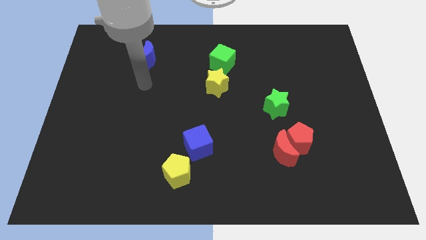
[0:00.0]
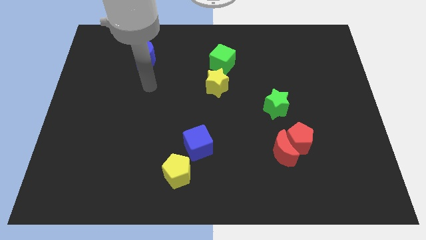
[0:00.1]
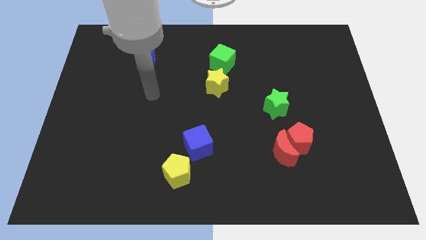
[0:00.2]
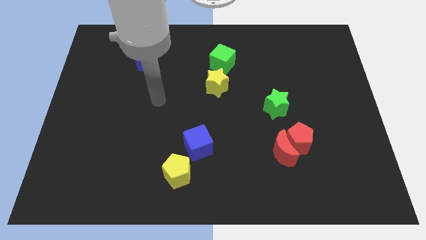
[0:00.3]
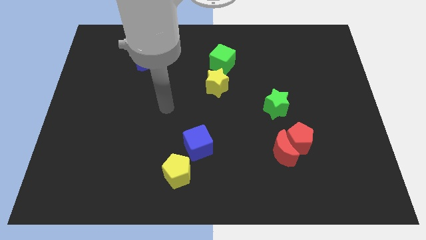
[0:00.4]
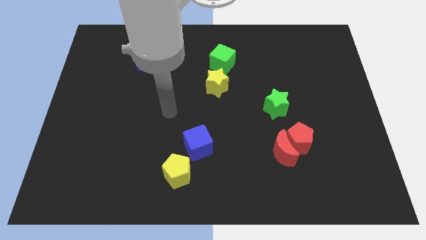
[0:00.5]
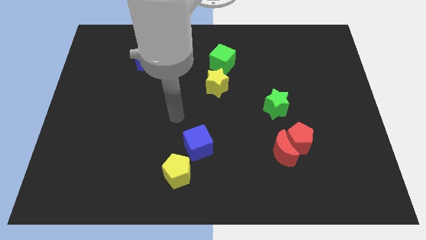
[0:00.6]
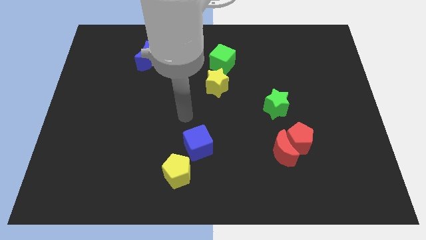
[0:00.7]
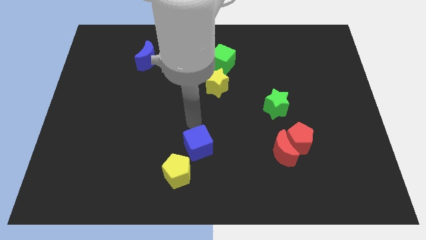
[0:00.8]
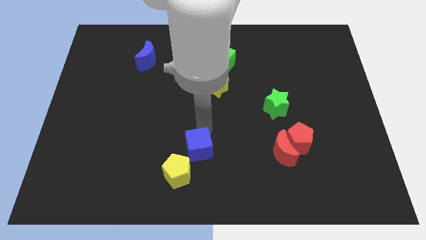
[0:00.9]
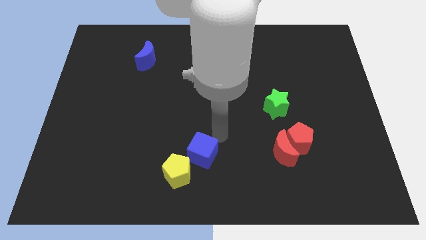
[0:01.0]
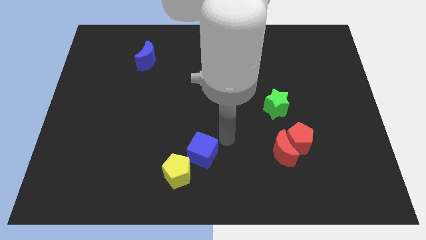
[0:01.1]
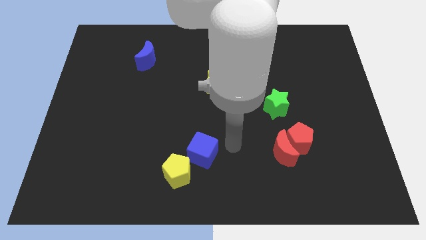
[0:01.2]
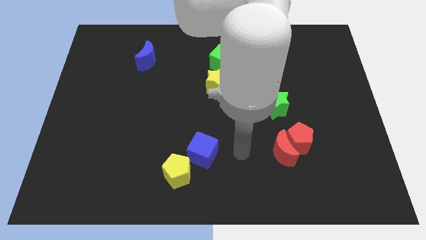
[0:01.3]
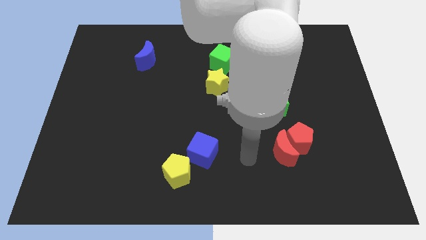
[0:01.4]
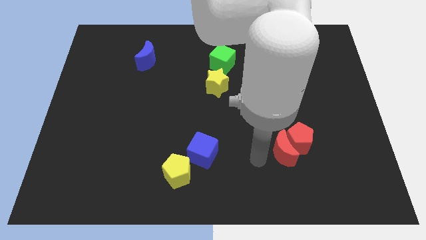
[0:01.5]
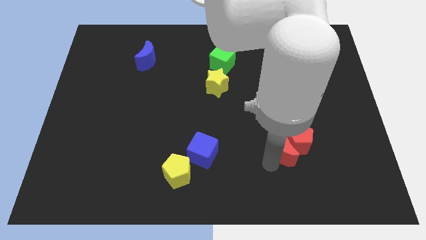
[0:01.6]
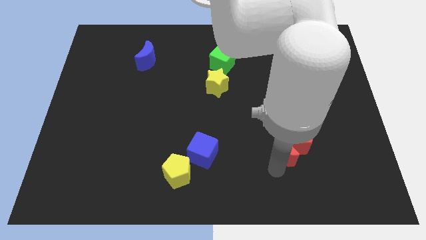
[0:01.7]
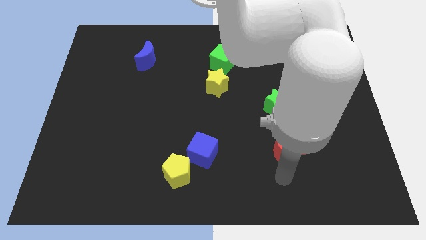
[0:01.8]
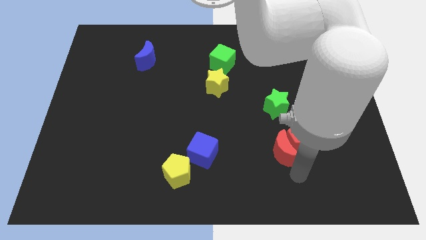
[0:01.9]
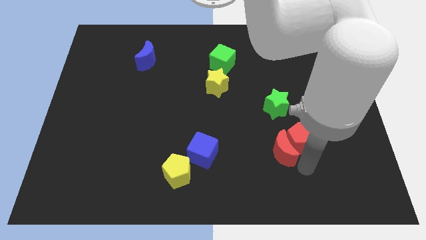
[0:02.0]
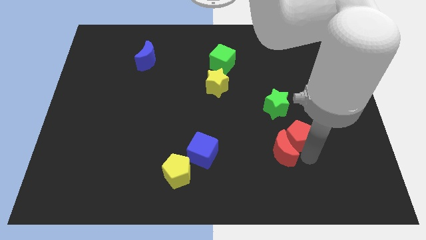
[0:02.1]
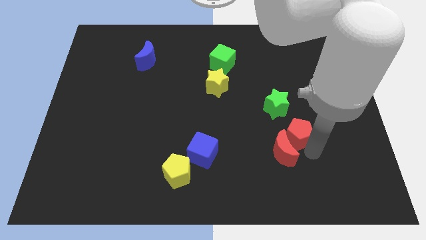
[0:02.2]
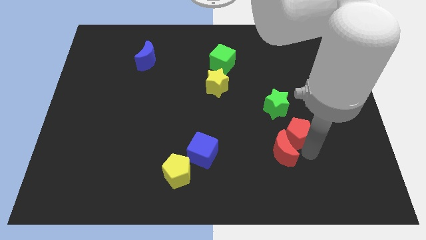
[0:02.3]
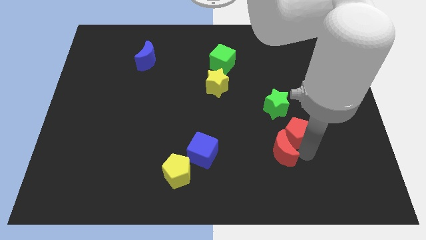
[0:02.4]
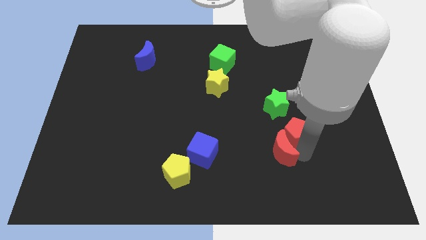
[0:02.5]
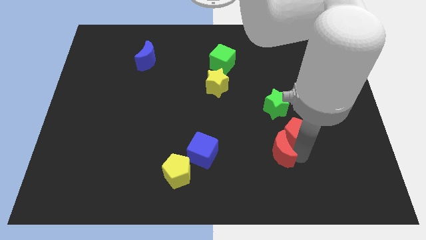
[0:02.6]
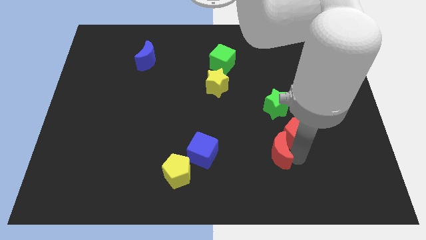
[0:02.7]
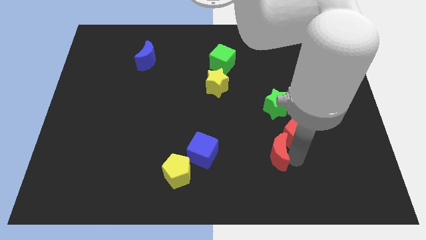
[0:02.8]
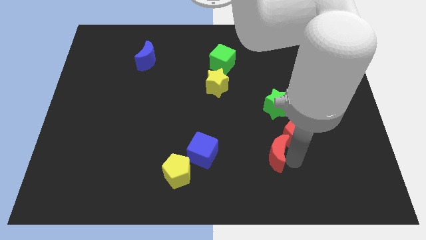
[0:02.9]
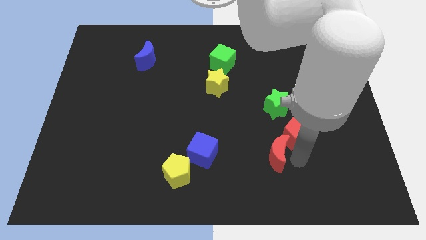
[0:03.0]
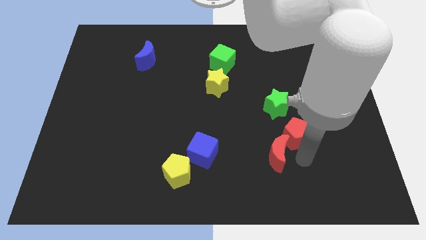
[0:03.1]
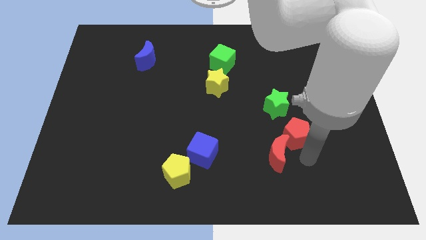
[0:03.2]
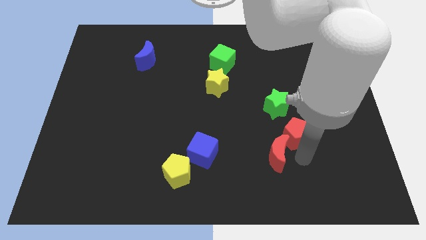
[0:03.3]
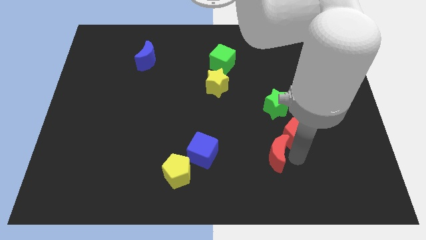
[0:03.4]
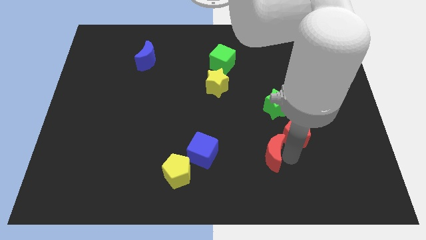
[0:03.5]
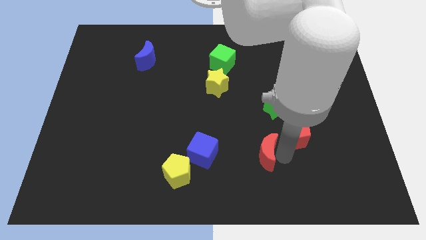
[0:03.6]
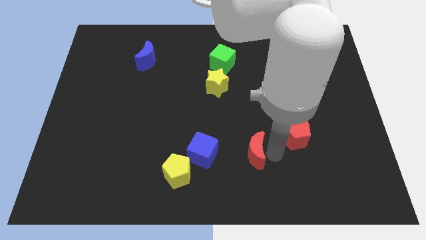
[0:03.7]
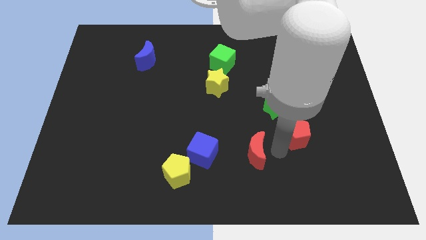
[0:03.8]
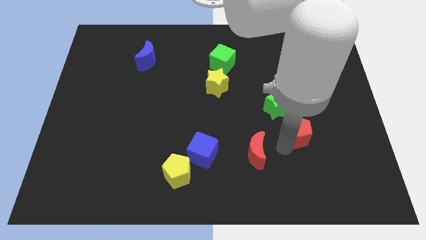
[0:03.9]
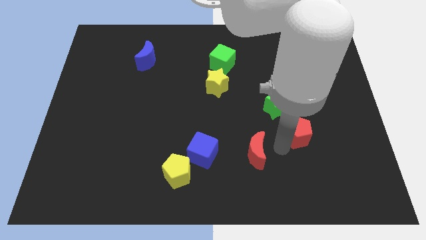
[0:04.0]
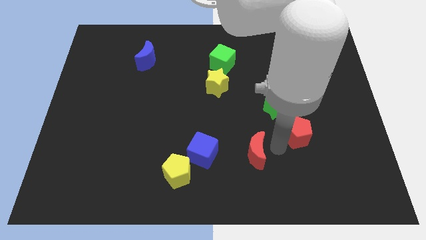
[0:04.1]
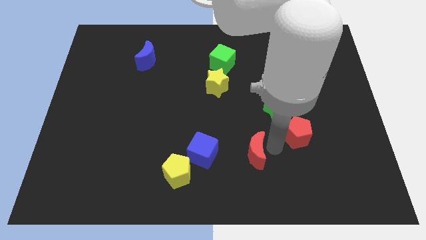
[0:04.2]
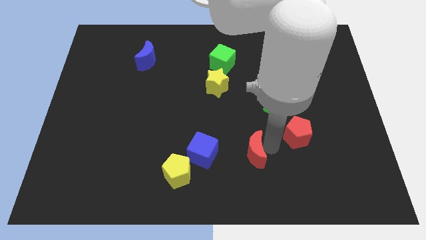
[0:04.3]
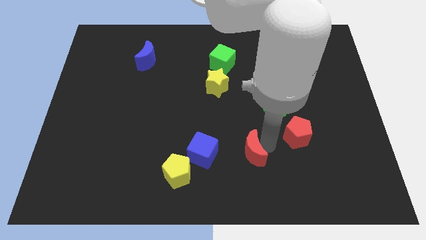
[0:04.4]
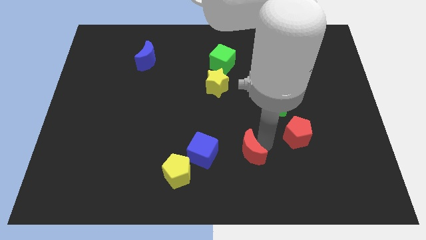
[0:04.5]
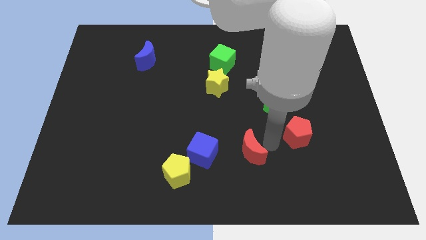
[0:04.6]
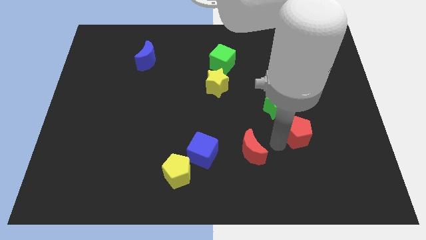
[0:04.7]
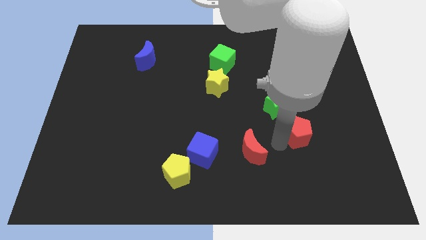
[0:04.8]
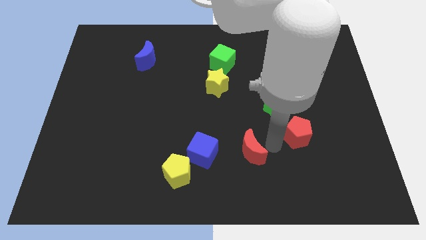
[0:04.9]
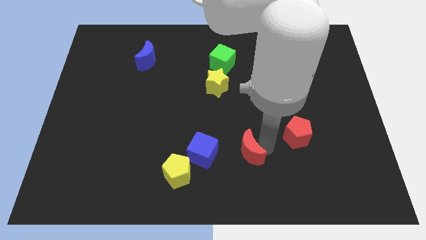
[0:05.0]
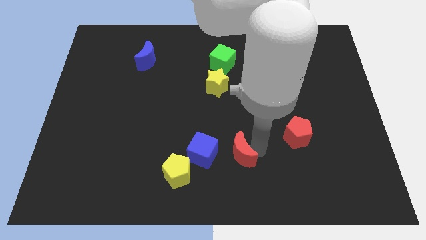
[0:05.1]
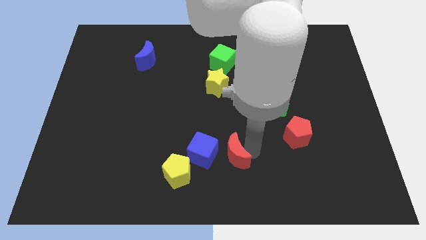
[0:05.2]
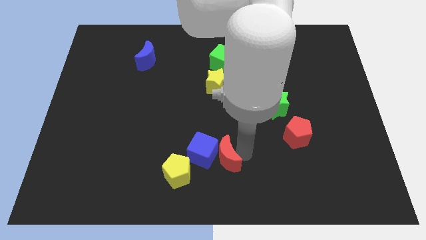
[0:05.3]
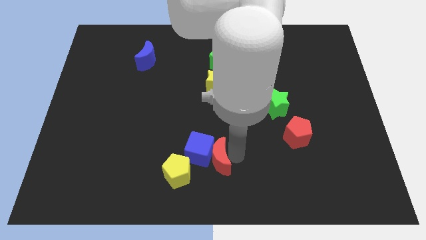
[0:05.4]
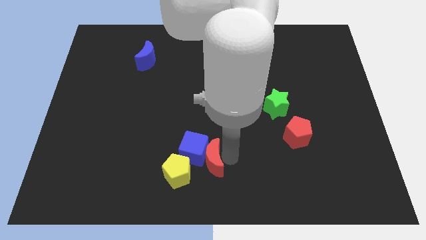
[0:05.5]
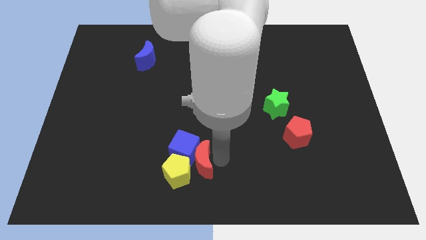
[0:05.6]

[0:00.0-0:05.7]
slide the red moon close to the yellow pentagon

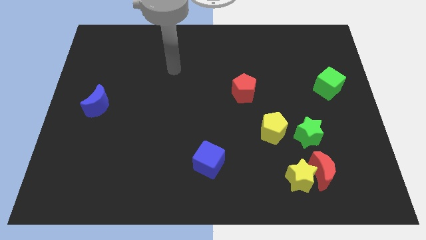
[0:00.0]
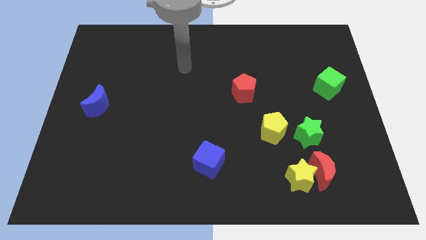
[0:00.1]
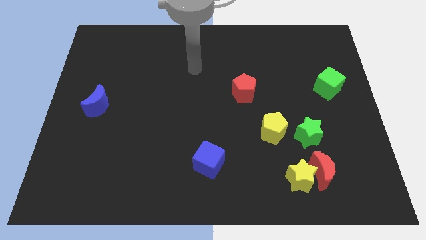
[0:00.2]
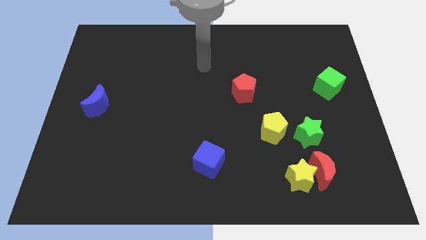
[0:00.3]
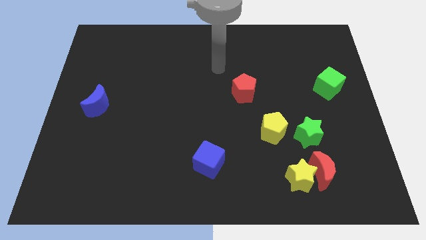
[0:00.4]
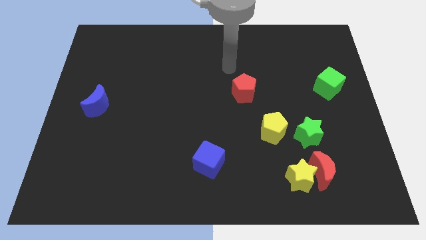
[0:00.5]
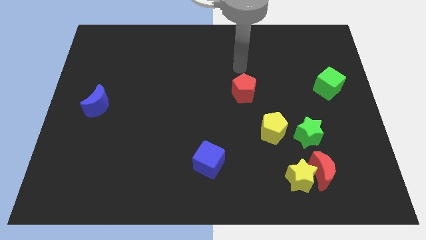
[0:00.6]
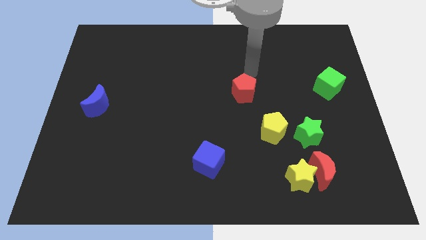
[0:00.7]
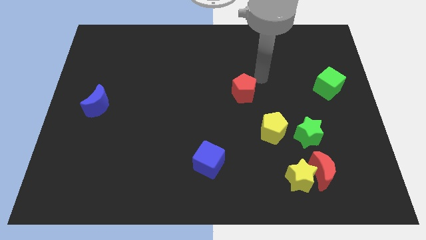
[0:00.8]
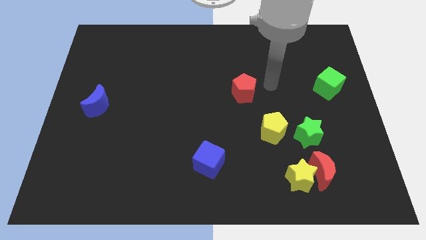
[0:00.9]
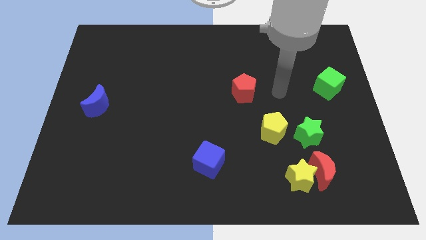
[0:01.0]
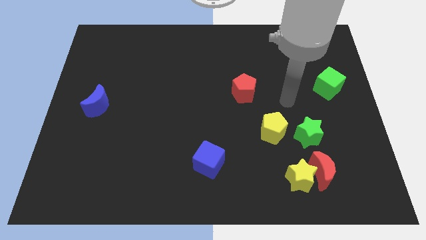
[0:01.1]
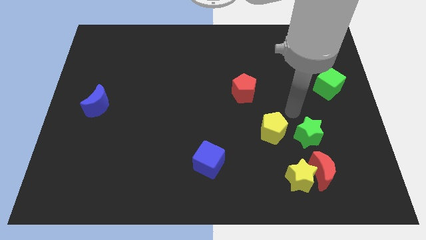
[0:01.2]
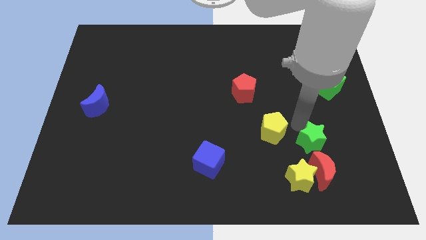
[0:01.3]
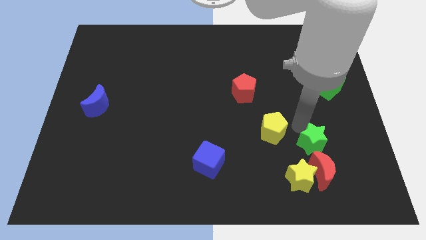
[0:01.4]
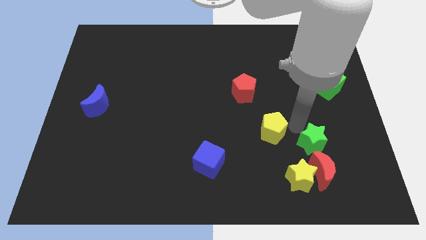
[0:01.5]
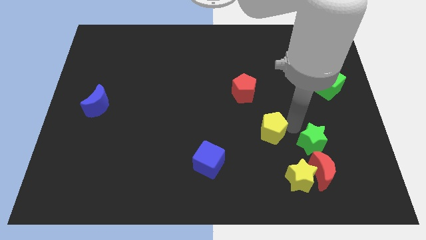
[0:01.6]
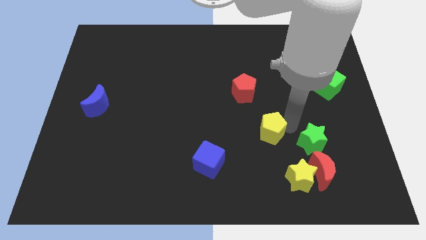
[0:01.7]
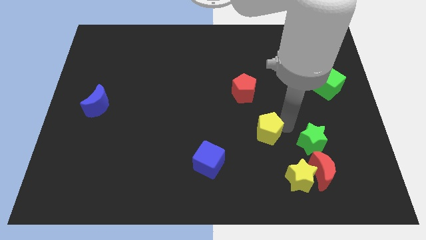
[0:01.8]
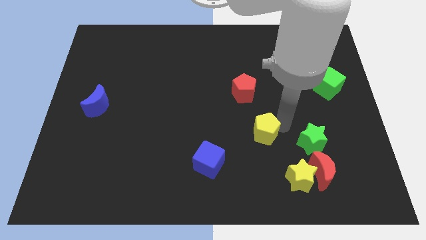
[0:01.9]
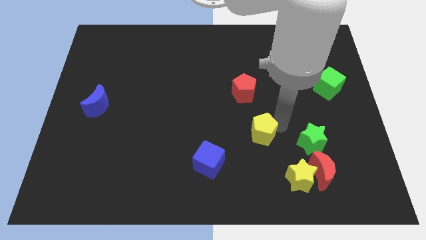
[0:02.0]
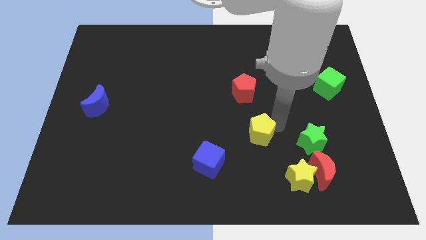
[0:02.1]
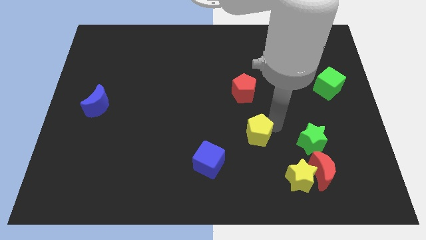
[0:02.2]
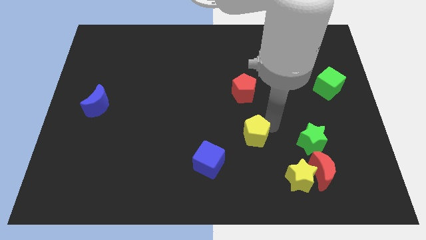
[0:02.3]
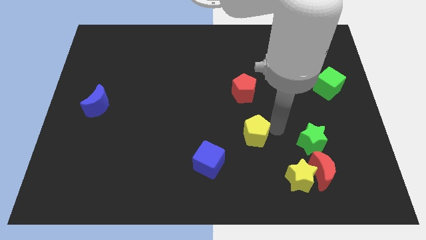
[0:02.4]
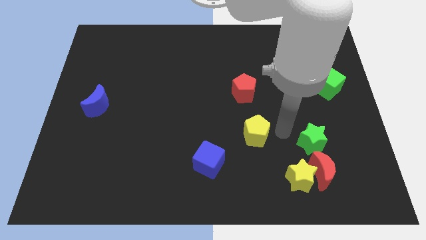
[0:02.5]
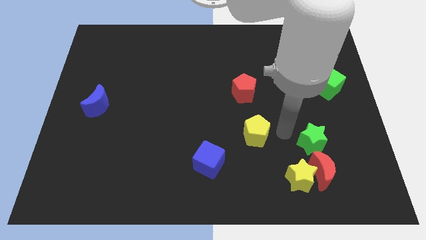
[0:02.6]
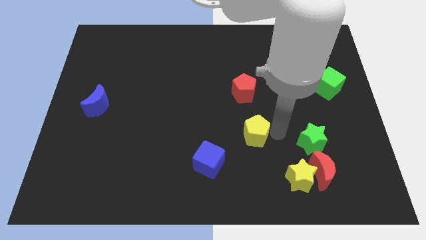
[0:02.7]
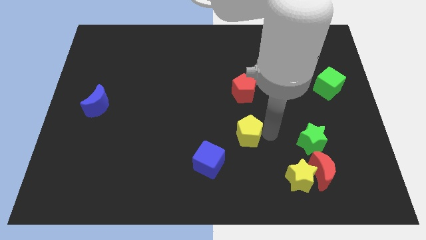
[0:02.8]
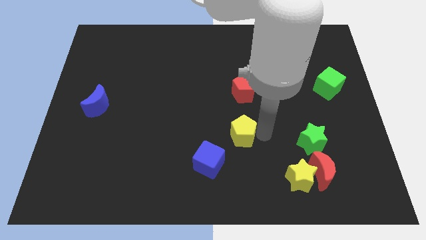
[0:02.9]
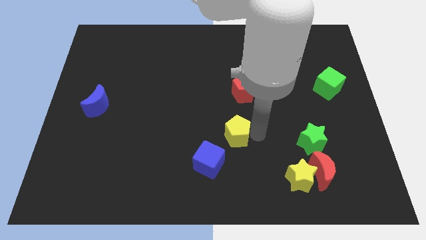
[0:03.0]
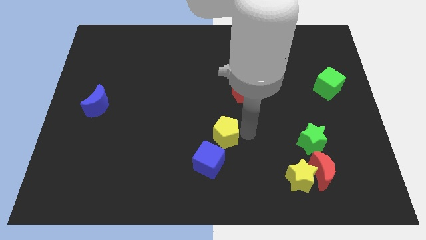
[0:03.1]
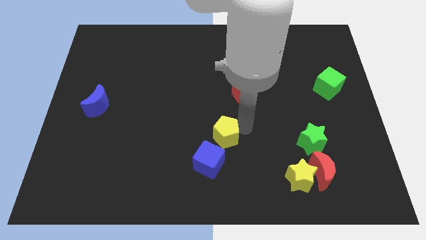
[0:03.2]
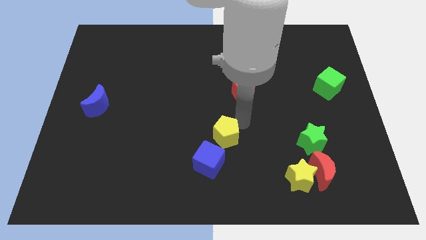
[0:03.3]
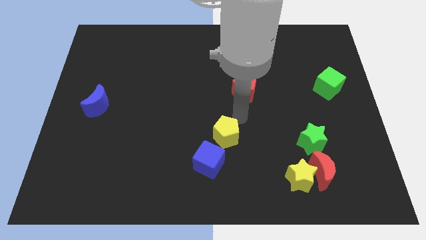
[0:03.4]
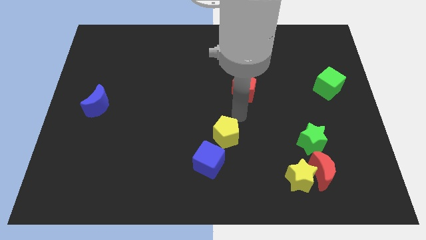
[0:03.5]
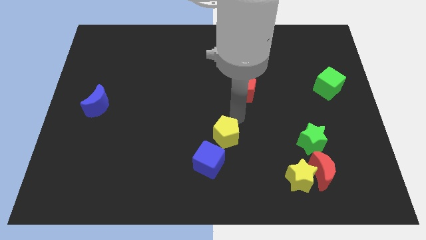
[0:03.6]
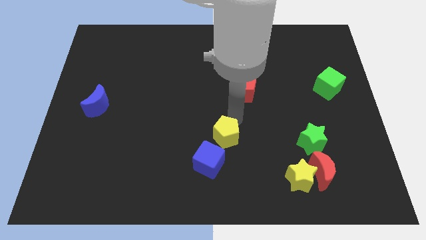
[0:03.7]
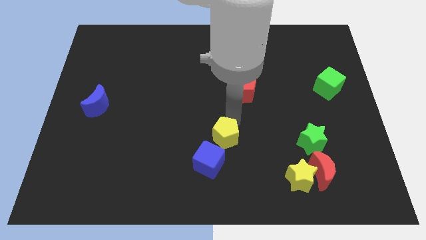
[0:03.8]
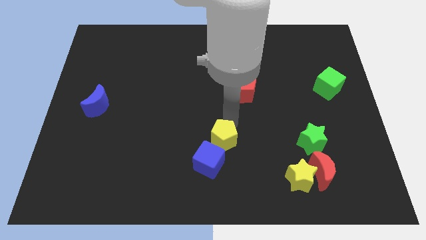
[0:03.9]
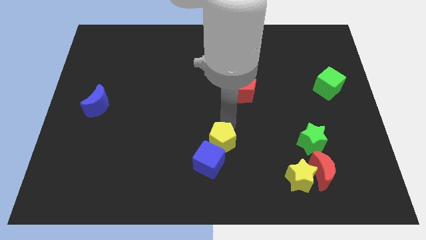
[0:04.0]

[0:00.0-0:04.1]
slide the yellow pentagon to the blue cube
